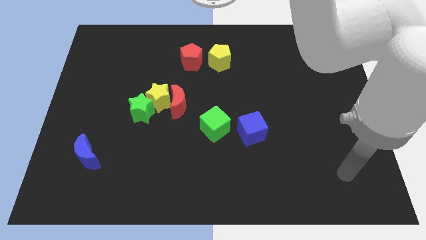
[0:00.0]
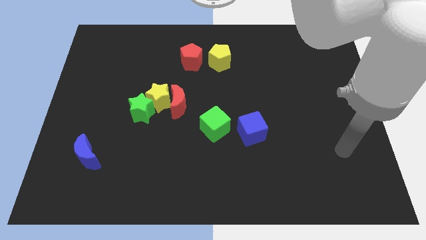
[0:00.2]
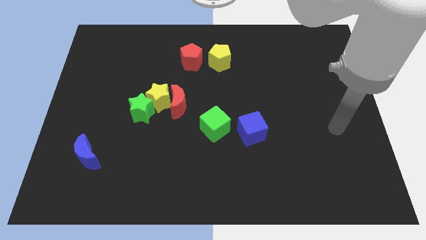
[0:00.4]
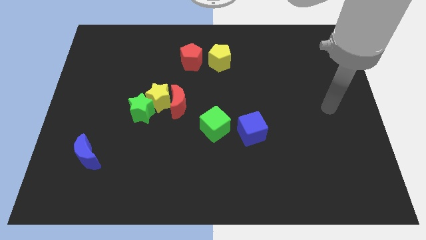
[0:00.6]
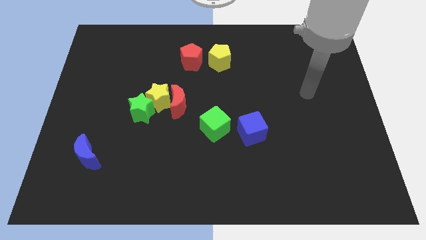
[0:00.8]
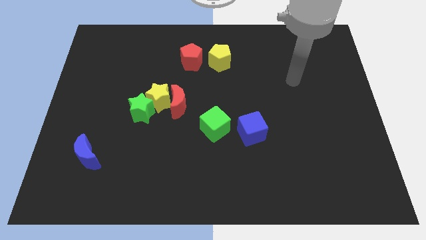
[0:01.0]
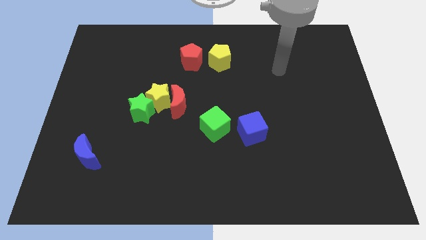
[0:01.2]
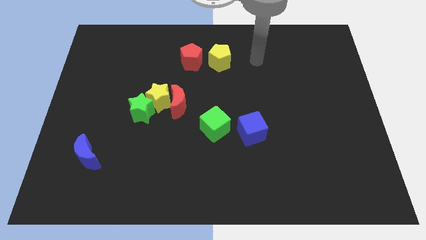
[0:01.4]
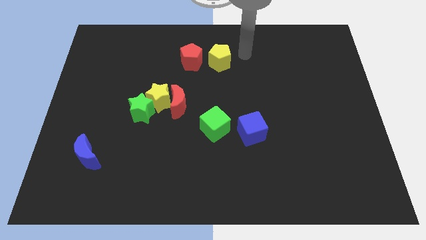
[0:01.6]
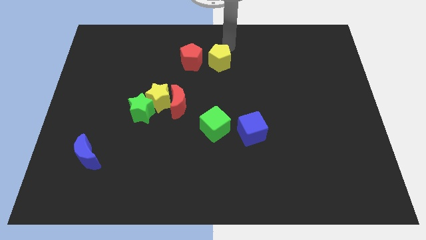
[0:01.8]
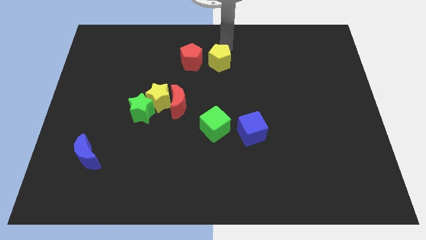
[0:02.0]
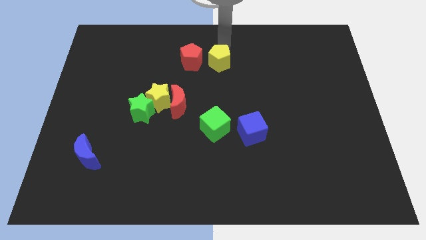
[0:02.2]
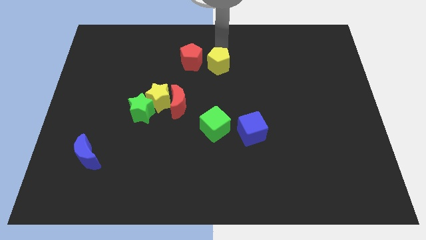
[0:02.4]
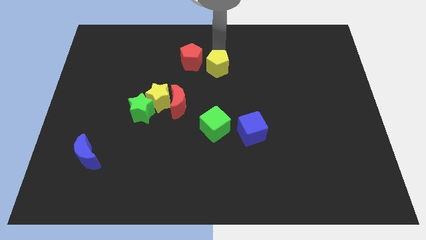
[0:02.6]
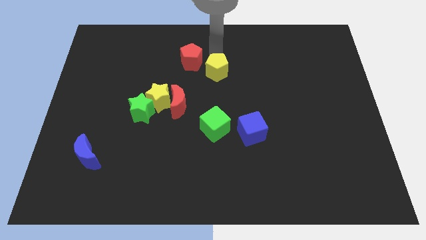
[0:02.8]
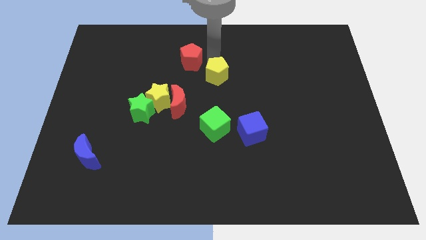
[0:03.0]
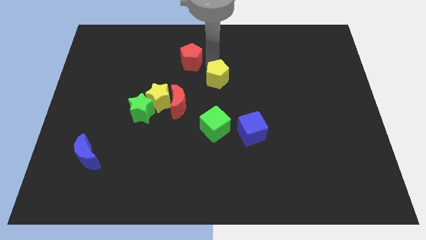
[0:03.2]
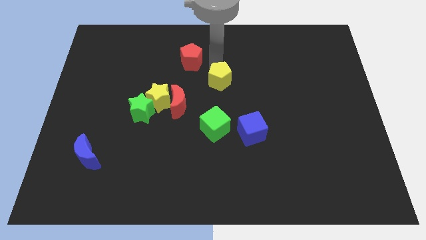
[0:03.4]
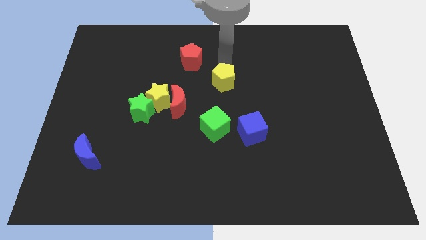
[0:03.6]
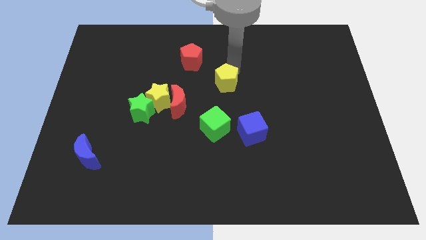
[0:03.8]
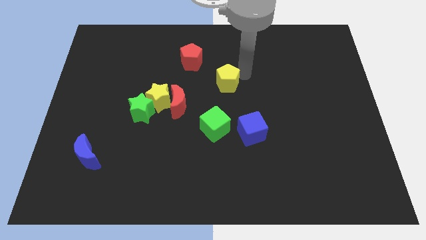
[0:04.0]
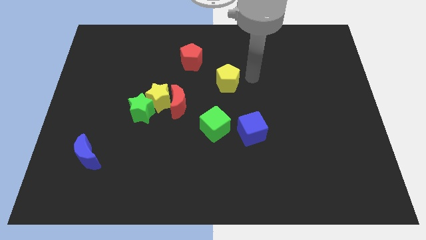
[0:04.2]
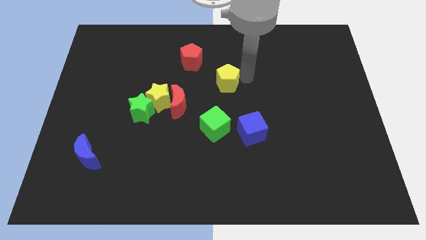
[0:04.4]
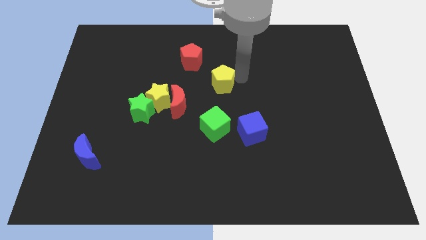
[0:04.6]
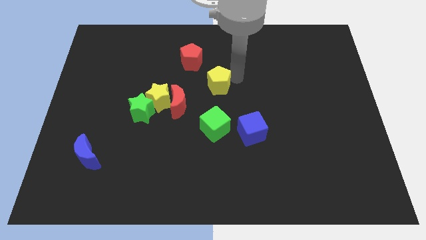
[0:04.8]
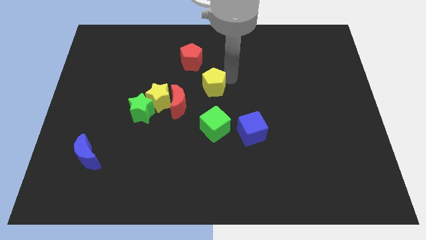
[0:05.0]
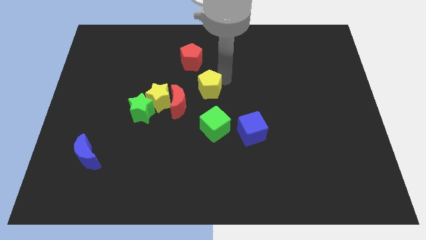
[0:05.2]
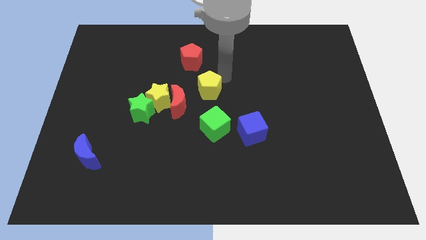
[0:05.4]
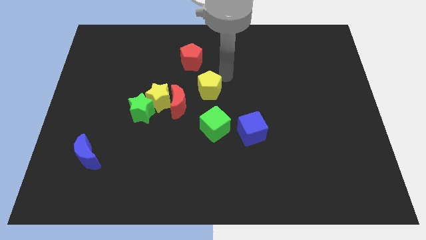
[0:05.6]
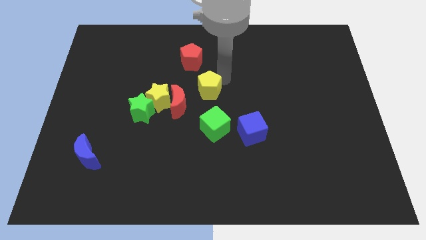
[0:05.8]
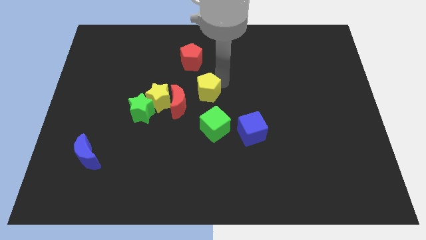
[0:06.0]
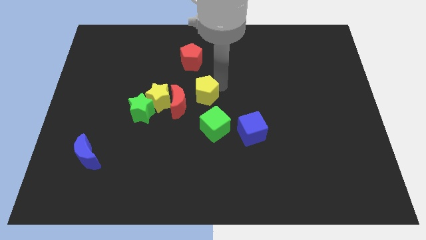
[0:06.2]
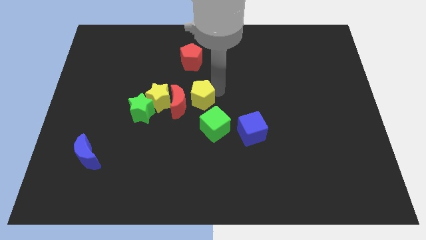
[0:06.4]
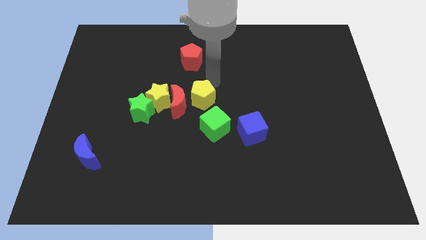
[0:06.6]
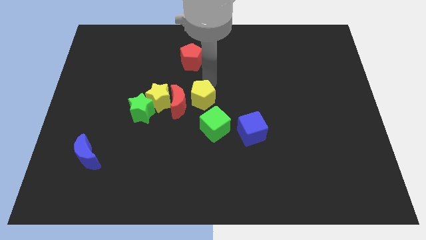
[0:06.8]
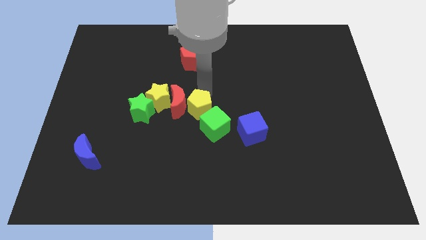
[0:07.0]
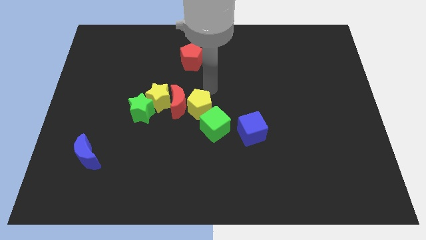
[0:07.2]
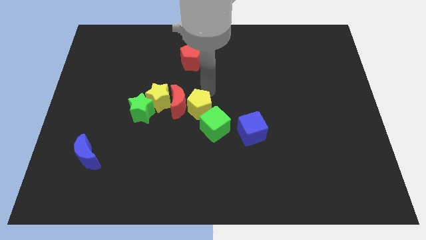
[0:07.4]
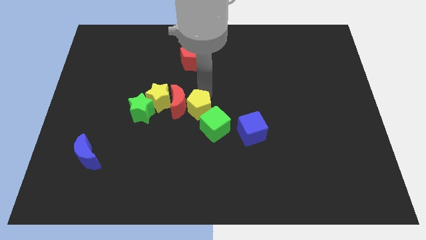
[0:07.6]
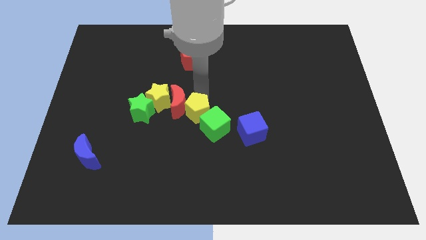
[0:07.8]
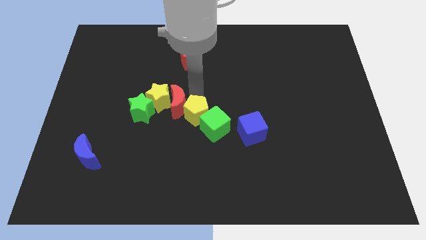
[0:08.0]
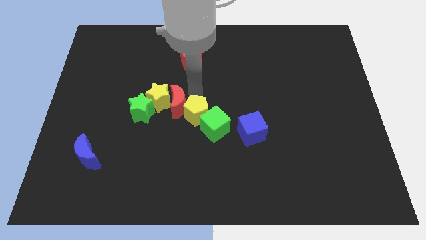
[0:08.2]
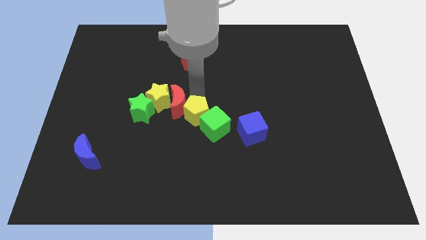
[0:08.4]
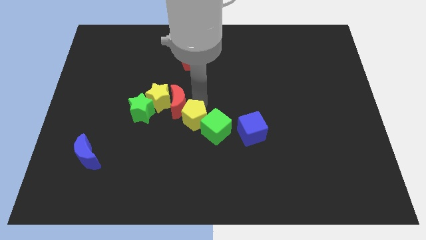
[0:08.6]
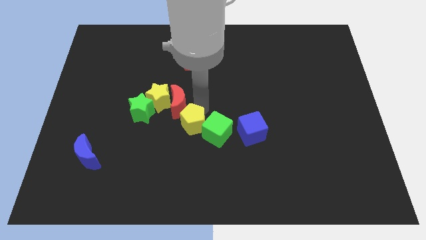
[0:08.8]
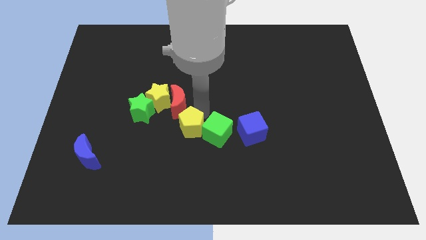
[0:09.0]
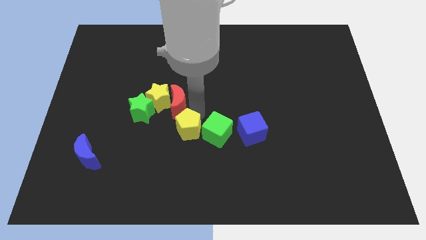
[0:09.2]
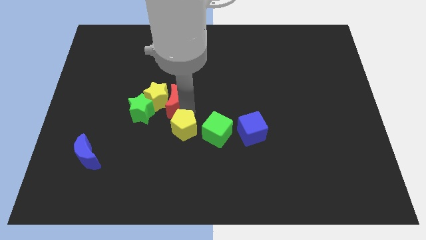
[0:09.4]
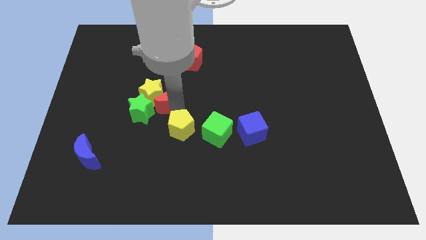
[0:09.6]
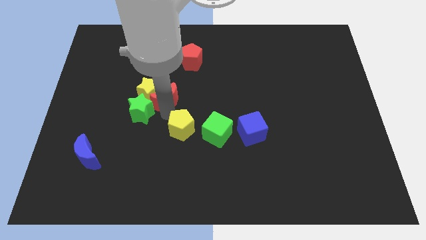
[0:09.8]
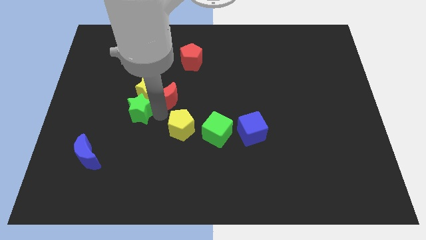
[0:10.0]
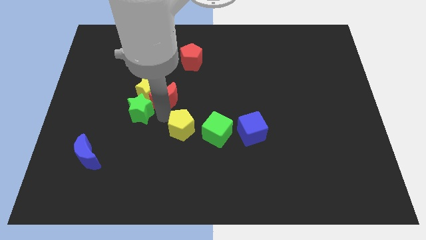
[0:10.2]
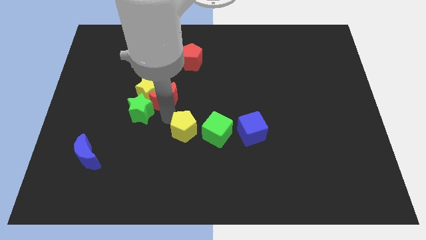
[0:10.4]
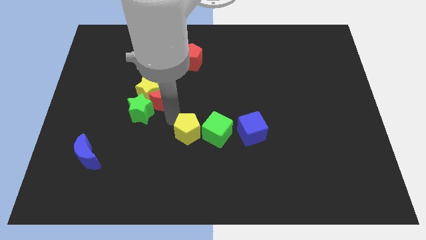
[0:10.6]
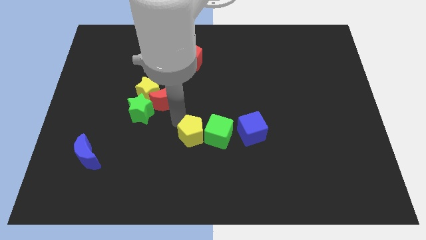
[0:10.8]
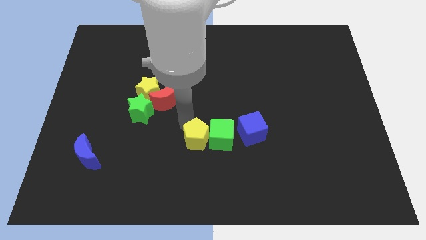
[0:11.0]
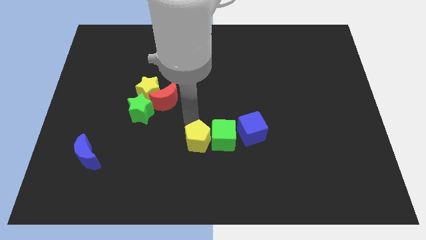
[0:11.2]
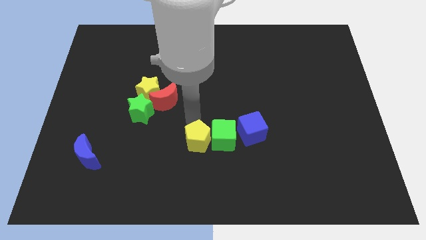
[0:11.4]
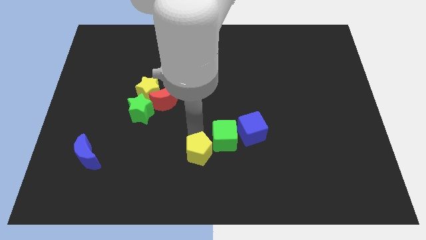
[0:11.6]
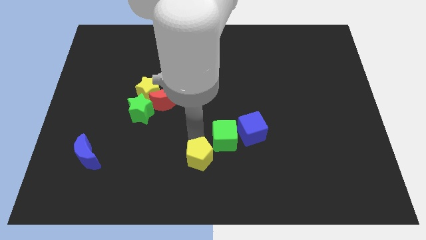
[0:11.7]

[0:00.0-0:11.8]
move the yellow pentagon to the bottom
